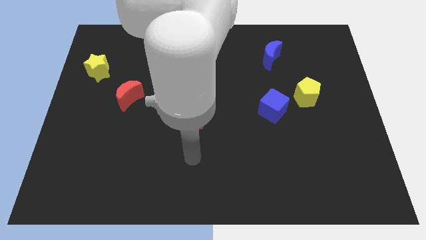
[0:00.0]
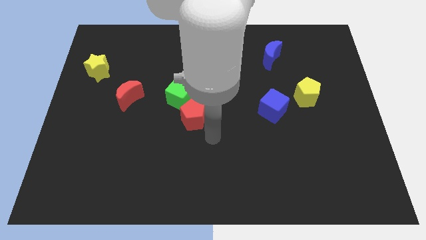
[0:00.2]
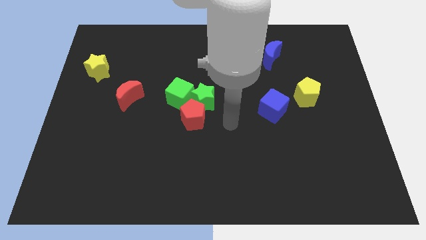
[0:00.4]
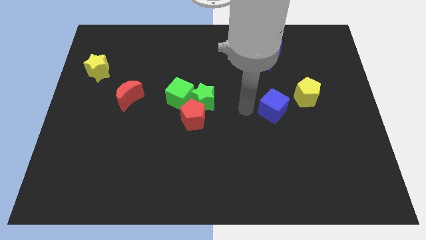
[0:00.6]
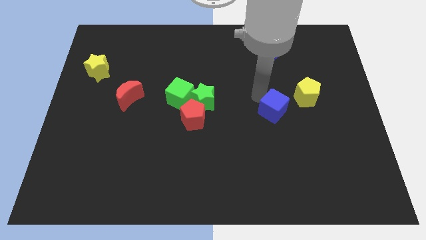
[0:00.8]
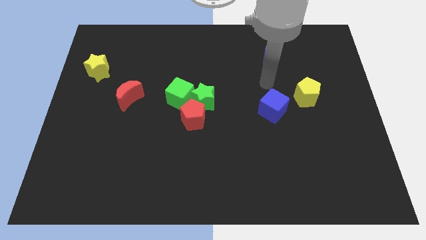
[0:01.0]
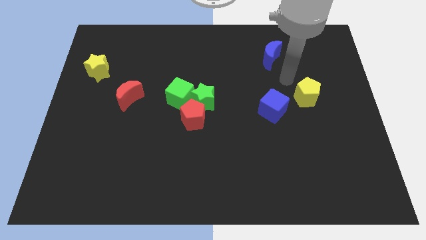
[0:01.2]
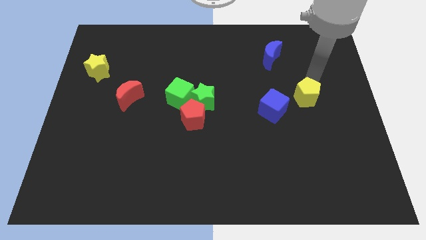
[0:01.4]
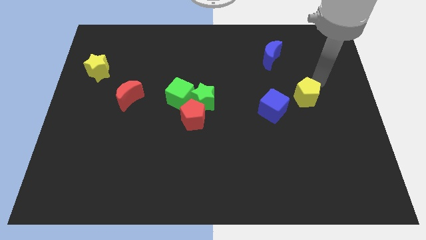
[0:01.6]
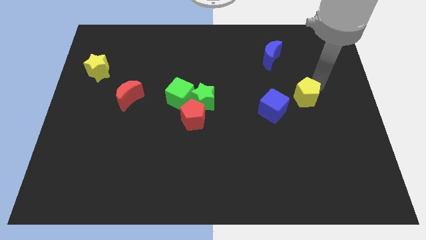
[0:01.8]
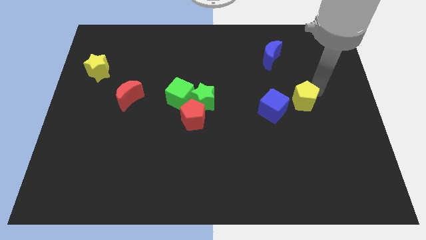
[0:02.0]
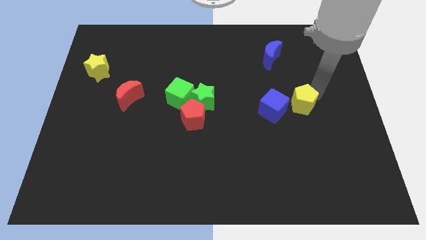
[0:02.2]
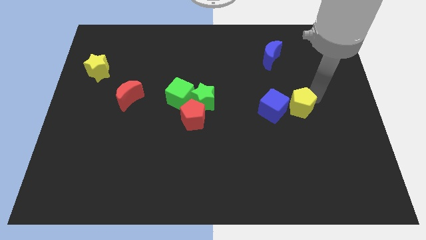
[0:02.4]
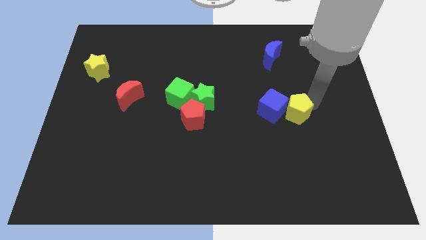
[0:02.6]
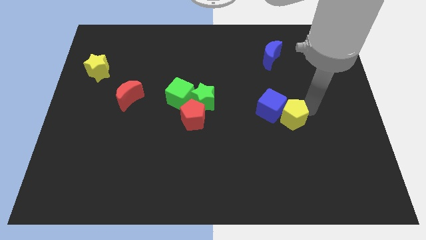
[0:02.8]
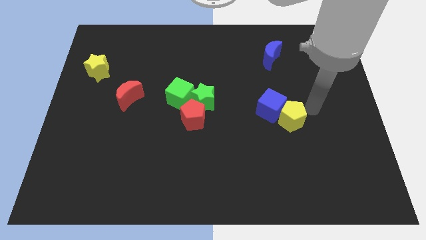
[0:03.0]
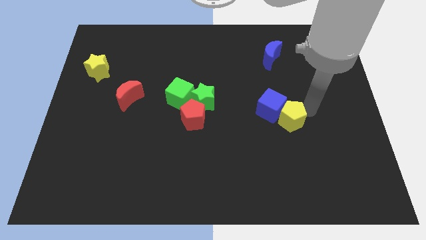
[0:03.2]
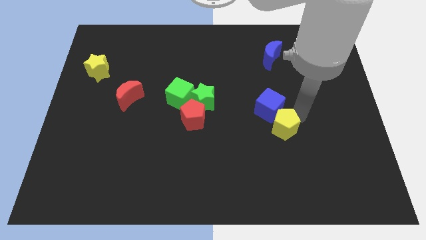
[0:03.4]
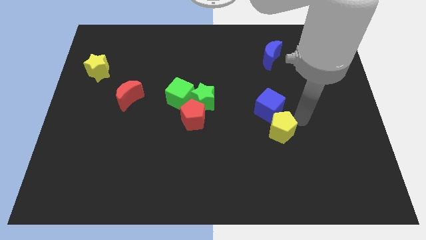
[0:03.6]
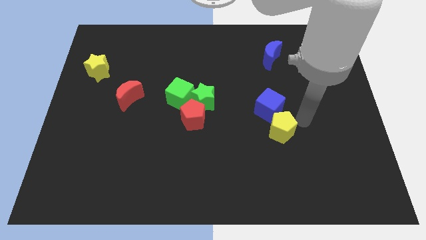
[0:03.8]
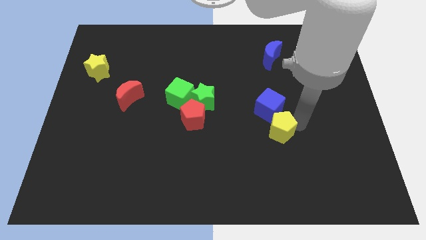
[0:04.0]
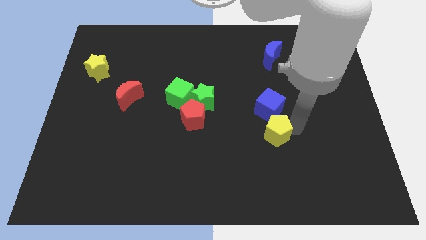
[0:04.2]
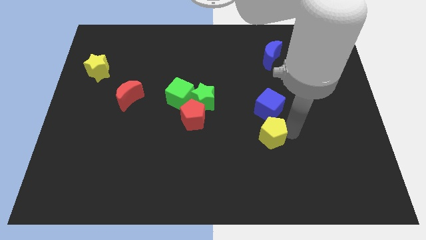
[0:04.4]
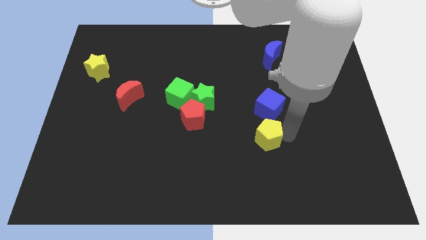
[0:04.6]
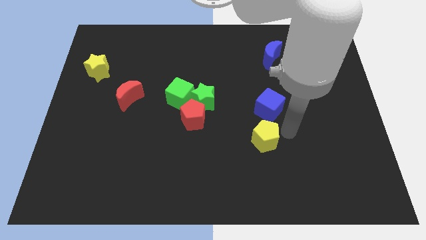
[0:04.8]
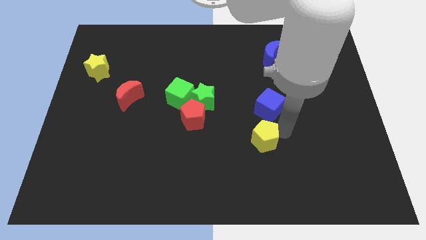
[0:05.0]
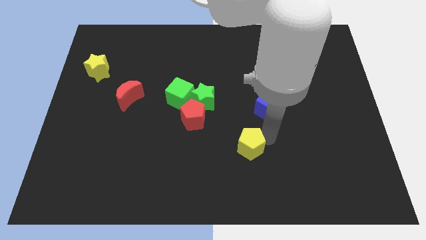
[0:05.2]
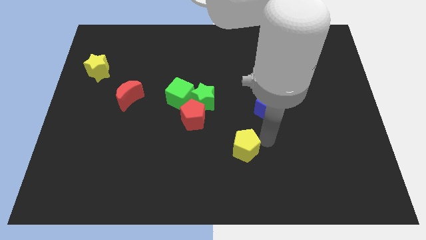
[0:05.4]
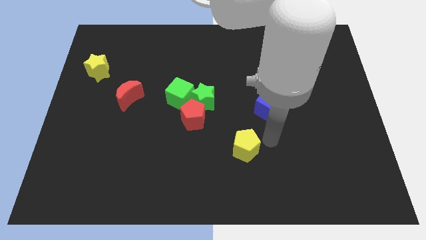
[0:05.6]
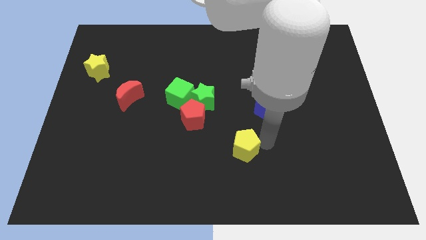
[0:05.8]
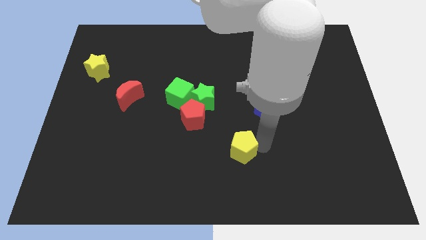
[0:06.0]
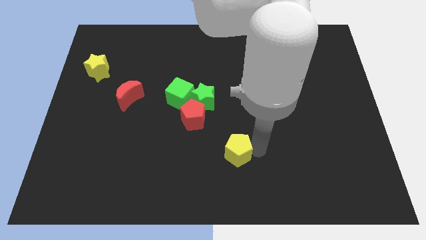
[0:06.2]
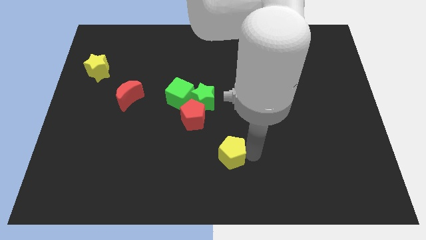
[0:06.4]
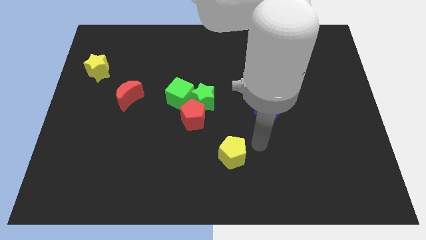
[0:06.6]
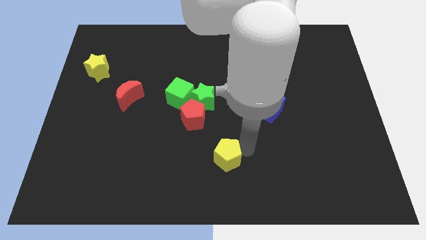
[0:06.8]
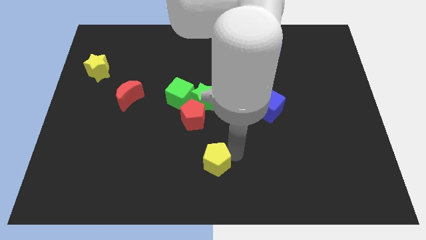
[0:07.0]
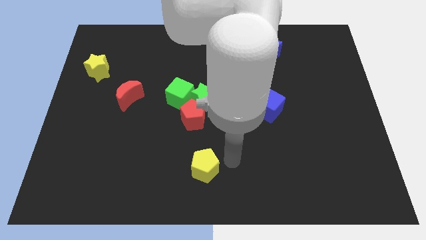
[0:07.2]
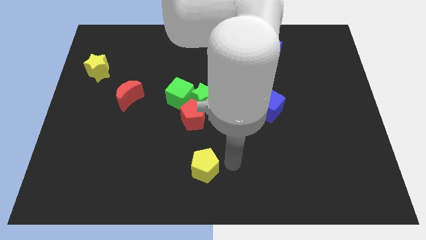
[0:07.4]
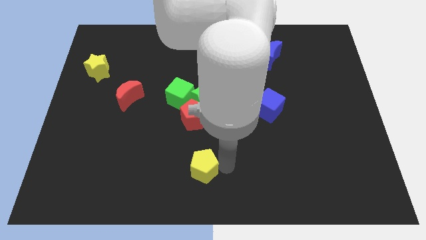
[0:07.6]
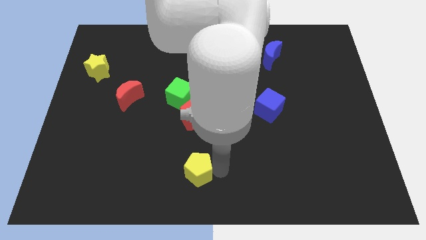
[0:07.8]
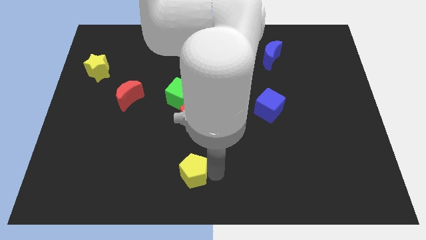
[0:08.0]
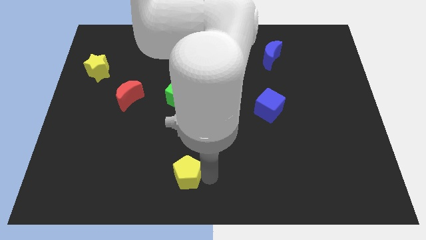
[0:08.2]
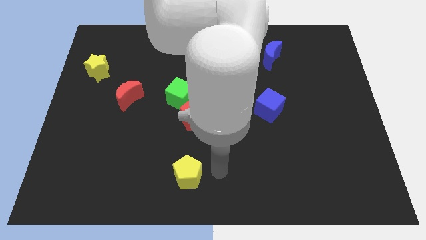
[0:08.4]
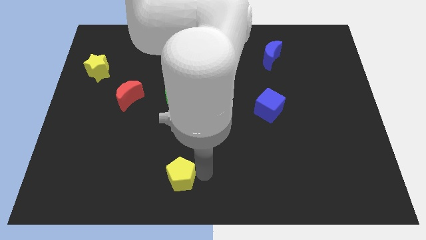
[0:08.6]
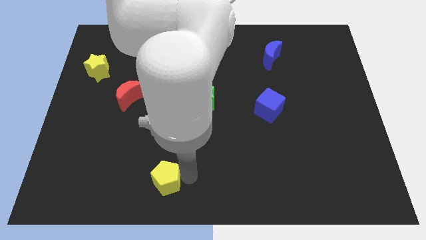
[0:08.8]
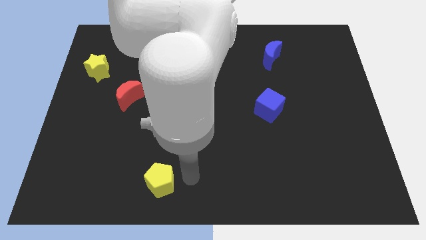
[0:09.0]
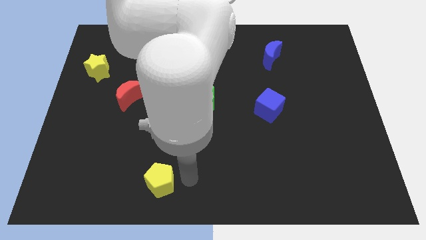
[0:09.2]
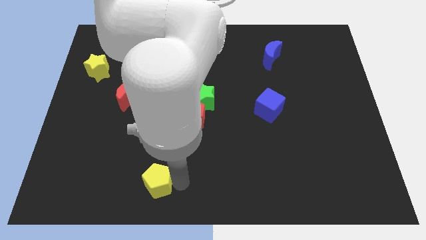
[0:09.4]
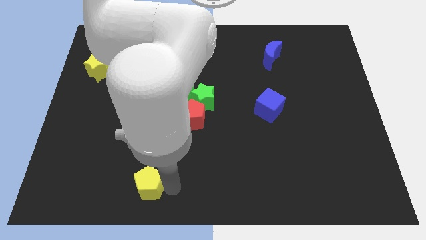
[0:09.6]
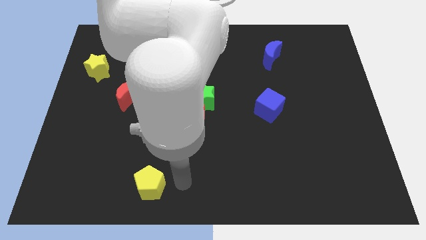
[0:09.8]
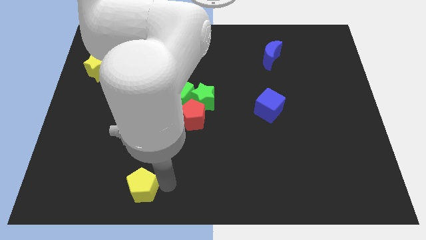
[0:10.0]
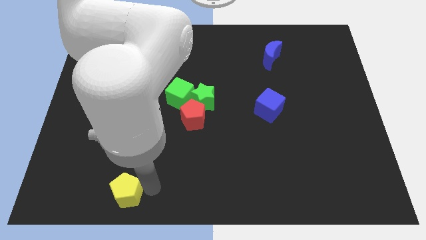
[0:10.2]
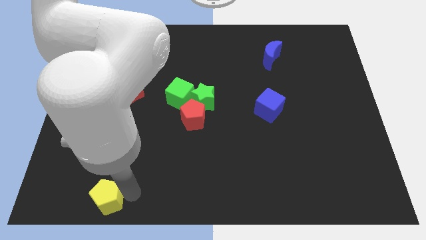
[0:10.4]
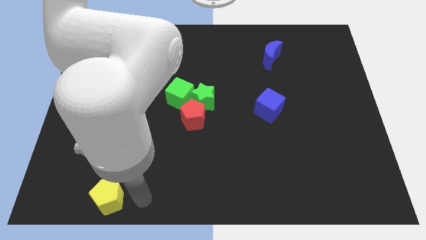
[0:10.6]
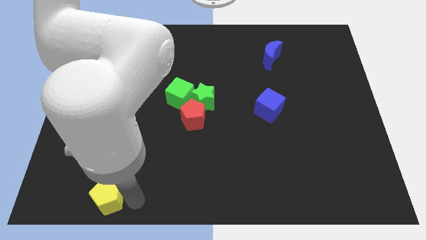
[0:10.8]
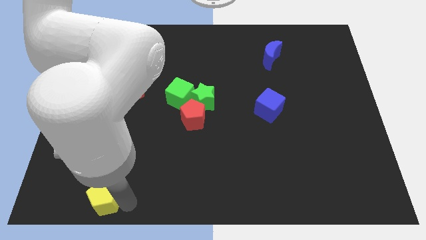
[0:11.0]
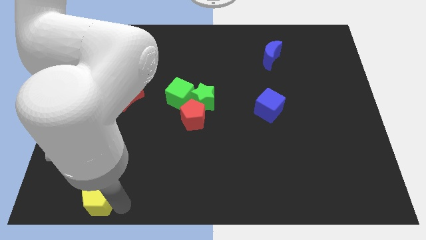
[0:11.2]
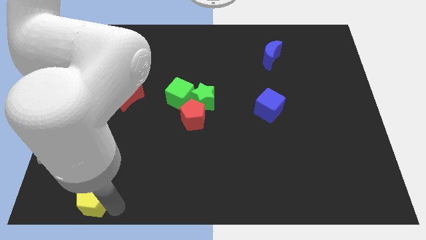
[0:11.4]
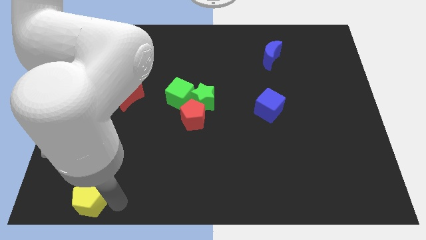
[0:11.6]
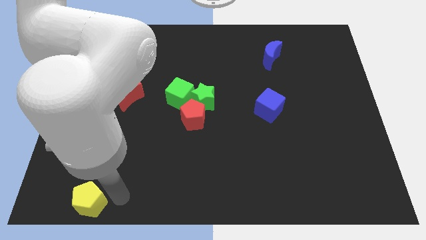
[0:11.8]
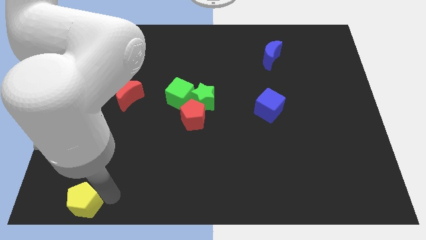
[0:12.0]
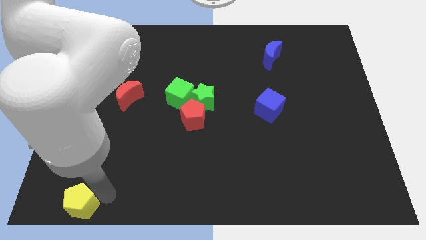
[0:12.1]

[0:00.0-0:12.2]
slide the yellow pentagon to the bottom left
